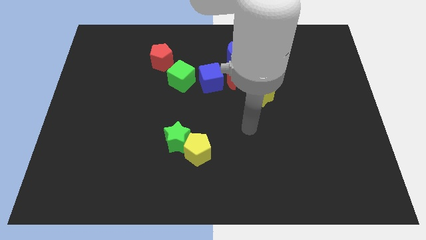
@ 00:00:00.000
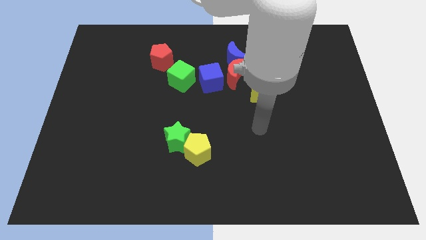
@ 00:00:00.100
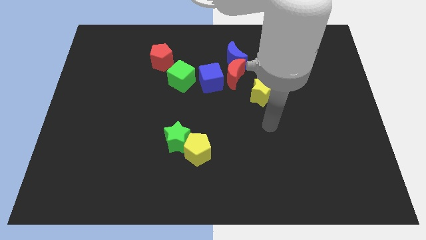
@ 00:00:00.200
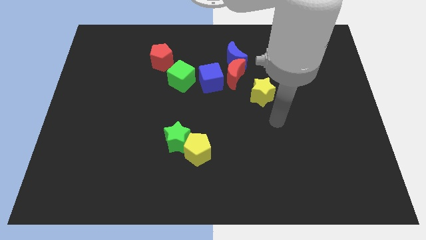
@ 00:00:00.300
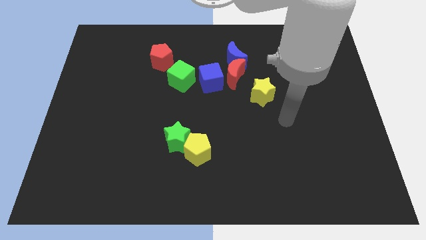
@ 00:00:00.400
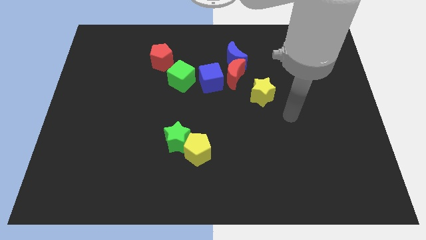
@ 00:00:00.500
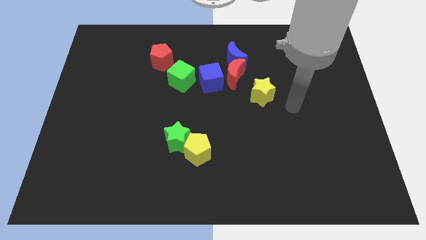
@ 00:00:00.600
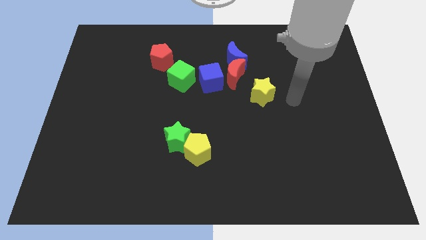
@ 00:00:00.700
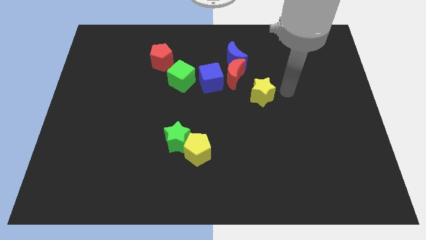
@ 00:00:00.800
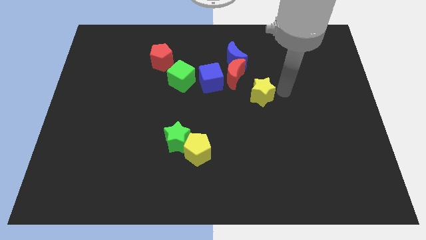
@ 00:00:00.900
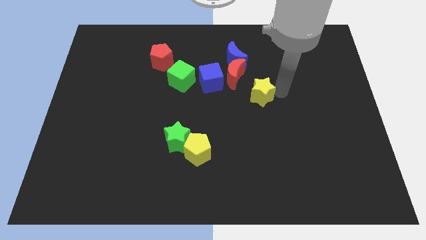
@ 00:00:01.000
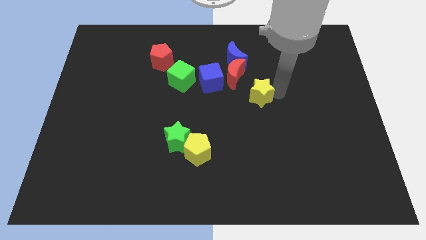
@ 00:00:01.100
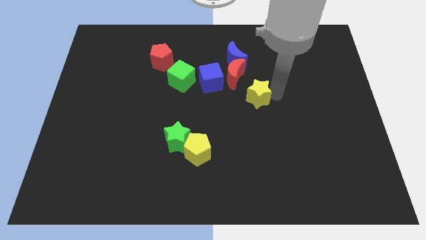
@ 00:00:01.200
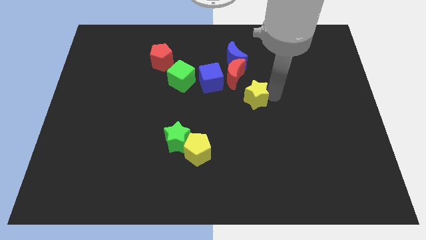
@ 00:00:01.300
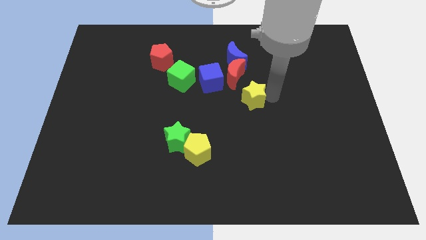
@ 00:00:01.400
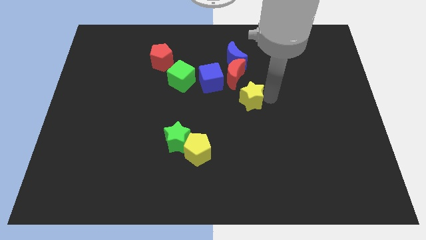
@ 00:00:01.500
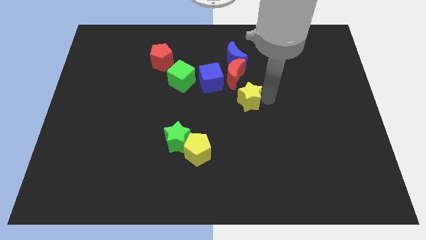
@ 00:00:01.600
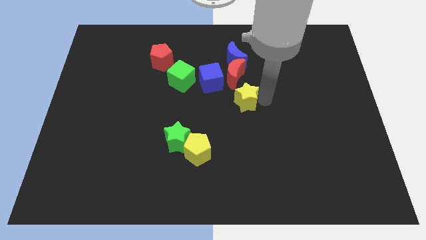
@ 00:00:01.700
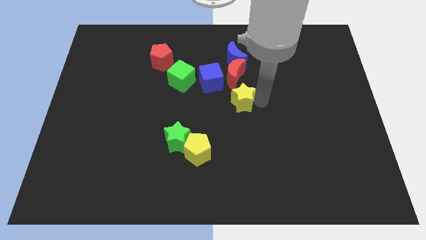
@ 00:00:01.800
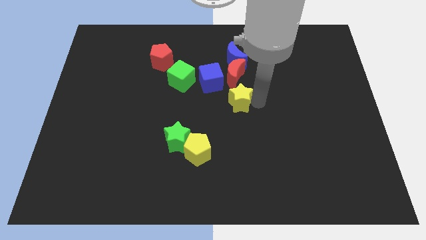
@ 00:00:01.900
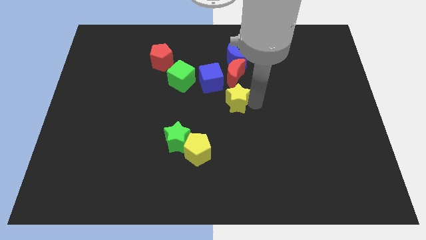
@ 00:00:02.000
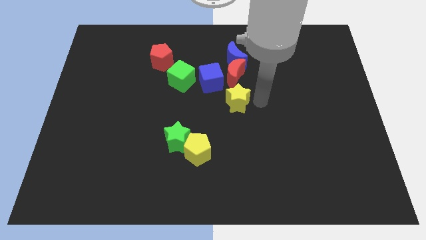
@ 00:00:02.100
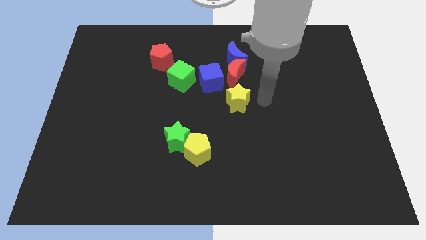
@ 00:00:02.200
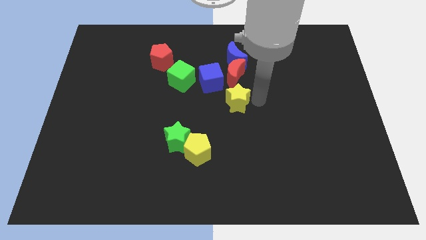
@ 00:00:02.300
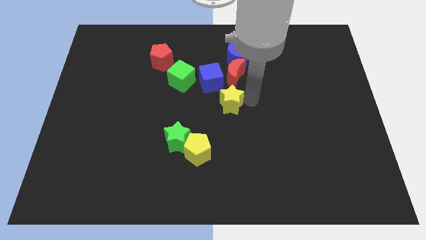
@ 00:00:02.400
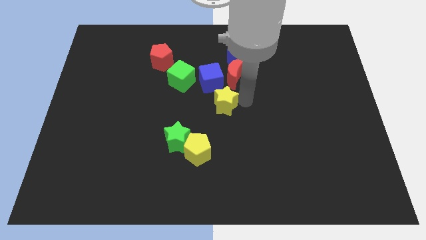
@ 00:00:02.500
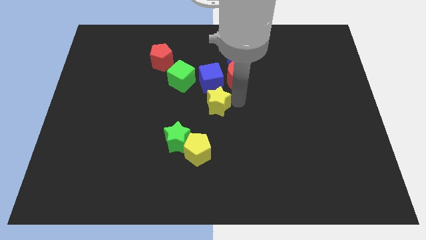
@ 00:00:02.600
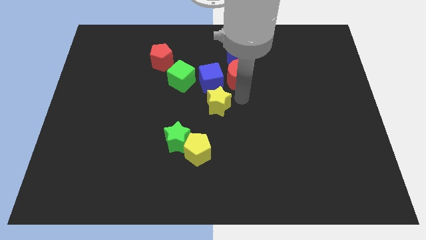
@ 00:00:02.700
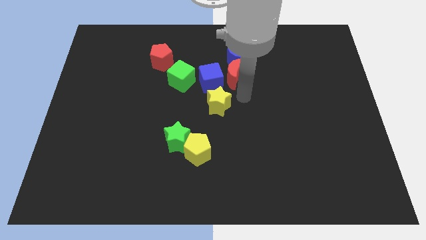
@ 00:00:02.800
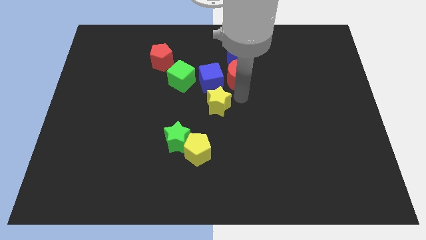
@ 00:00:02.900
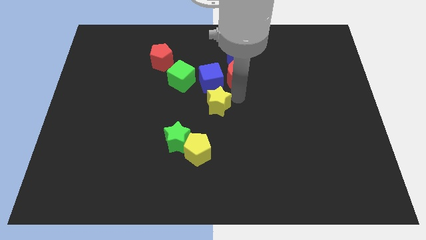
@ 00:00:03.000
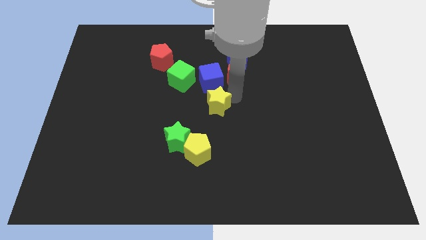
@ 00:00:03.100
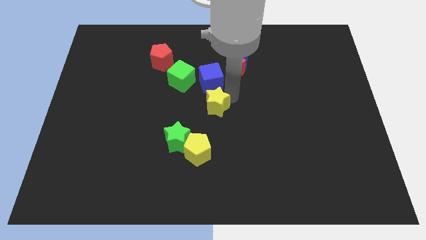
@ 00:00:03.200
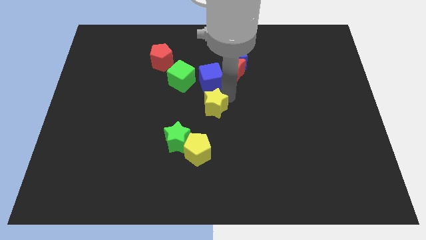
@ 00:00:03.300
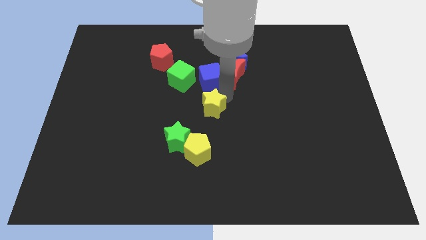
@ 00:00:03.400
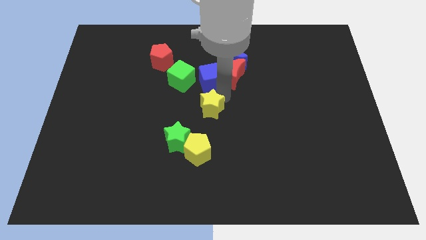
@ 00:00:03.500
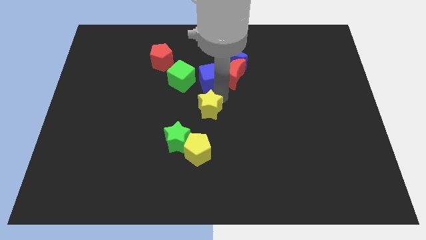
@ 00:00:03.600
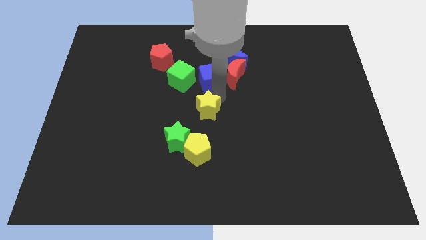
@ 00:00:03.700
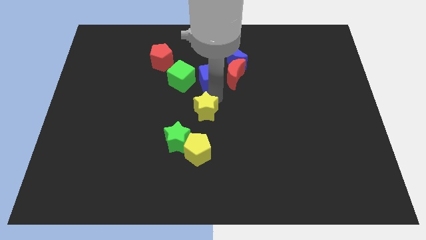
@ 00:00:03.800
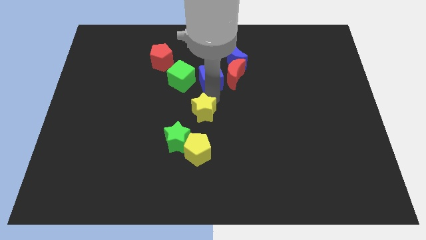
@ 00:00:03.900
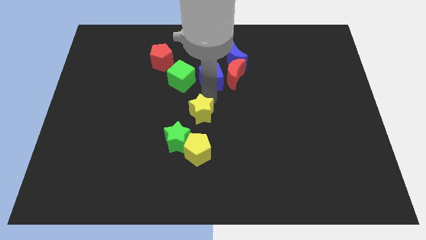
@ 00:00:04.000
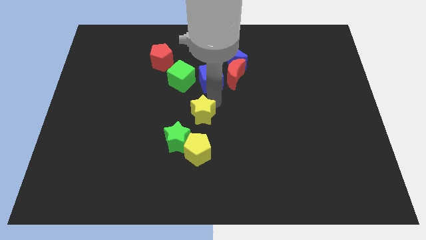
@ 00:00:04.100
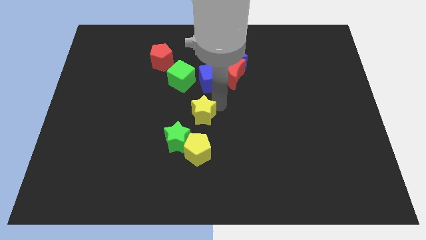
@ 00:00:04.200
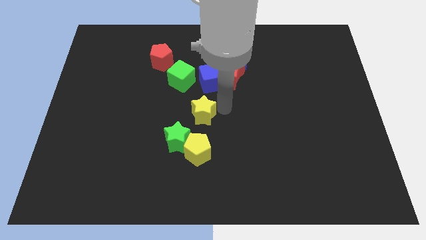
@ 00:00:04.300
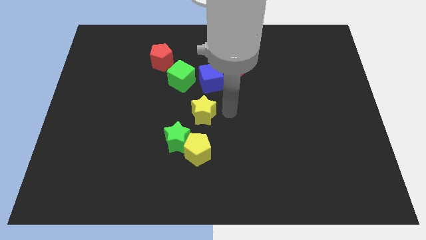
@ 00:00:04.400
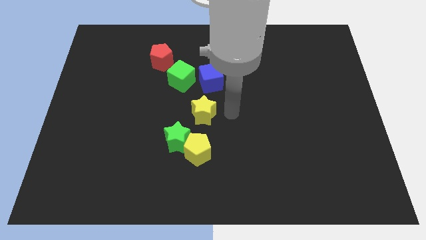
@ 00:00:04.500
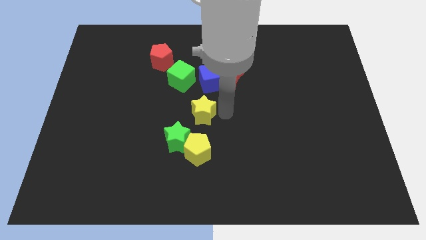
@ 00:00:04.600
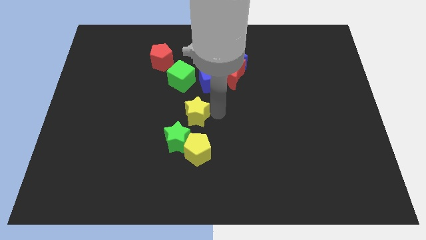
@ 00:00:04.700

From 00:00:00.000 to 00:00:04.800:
move the yellow star below the green cube

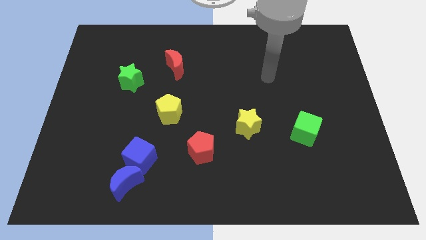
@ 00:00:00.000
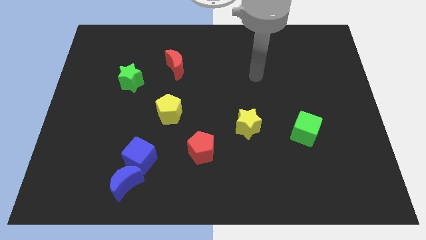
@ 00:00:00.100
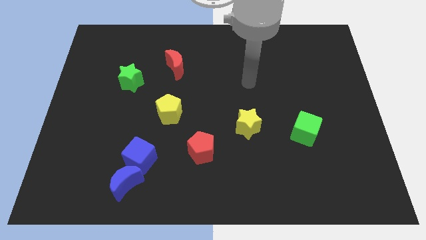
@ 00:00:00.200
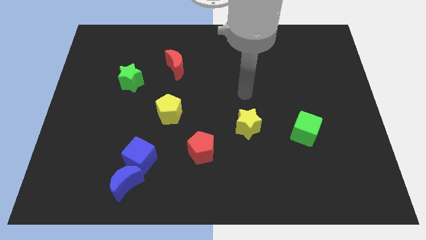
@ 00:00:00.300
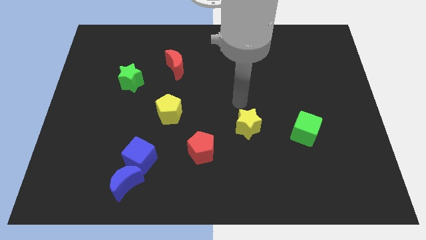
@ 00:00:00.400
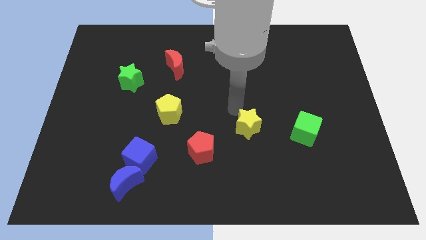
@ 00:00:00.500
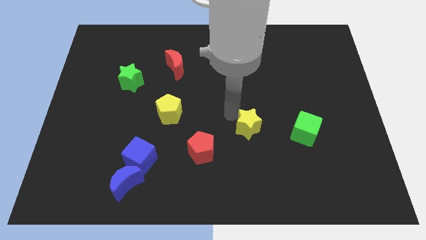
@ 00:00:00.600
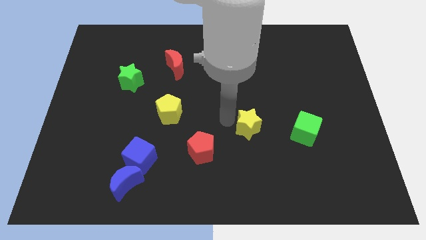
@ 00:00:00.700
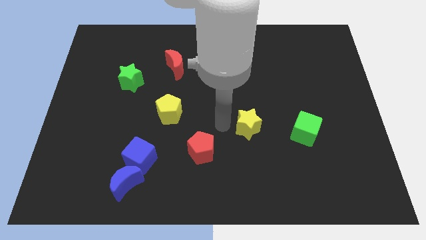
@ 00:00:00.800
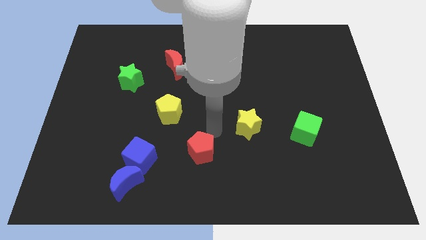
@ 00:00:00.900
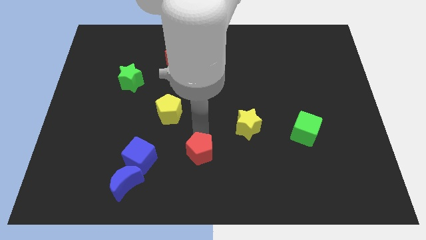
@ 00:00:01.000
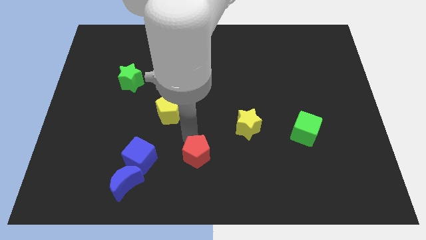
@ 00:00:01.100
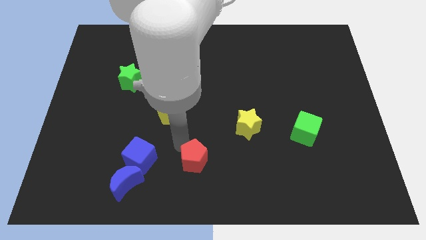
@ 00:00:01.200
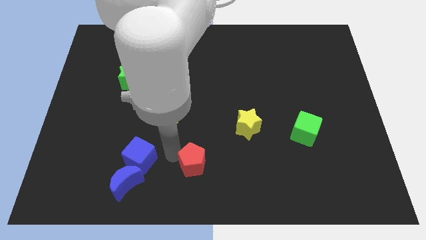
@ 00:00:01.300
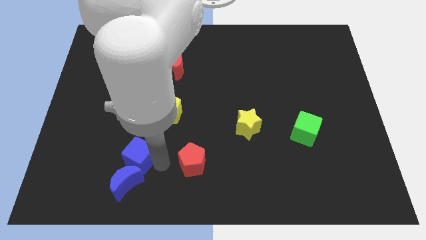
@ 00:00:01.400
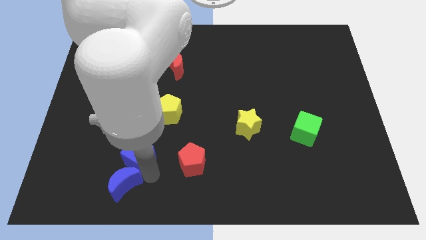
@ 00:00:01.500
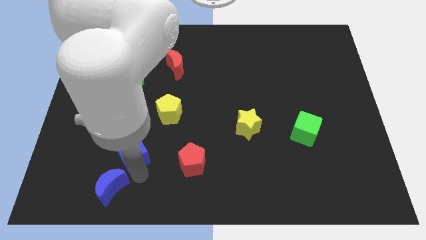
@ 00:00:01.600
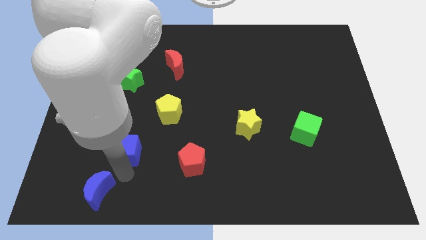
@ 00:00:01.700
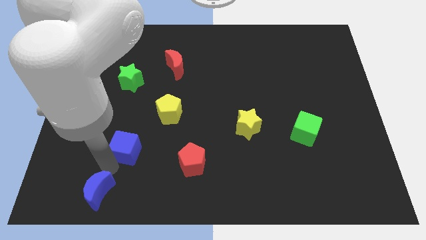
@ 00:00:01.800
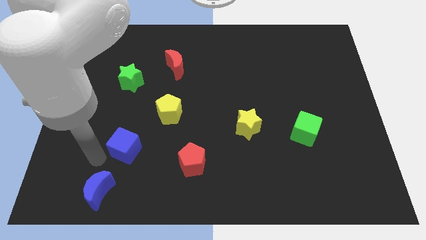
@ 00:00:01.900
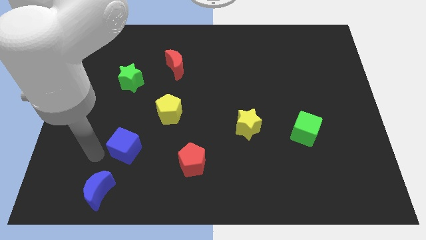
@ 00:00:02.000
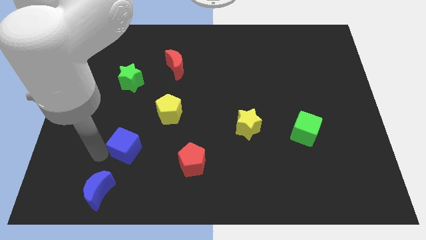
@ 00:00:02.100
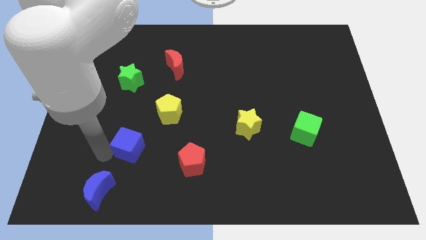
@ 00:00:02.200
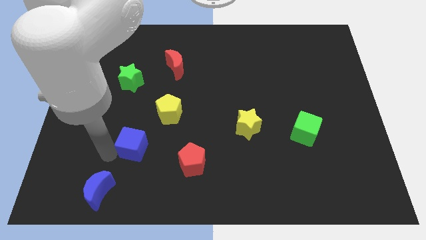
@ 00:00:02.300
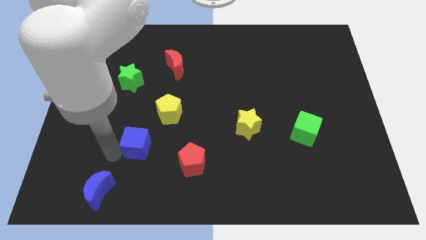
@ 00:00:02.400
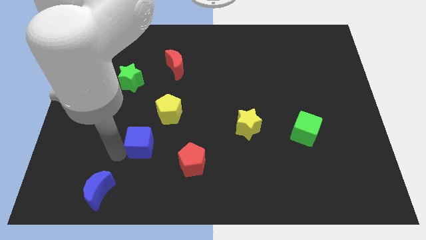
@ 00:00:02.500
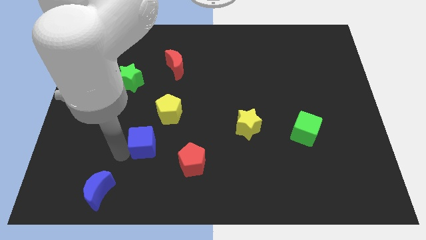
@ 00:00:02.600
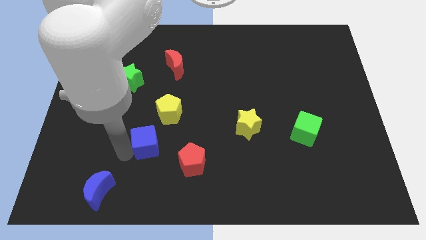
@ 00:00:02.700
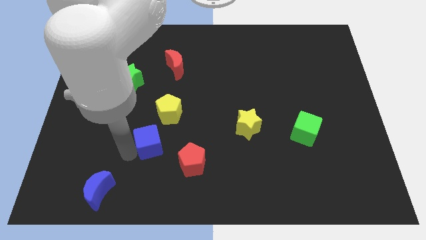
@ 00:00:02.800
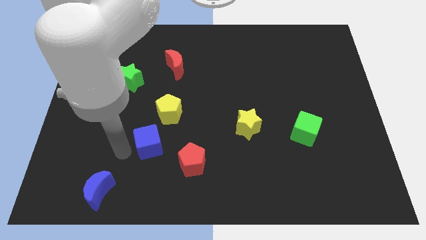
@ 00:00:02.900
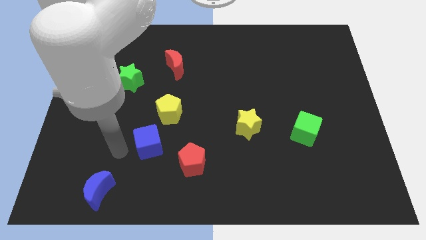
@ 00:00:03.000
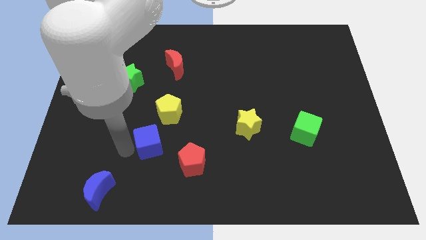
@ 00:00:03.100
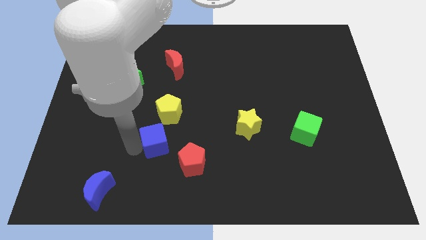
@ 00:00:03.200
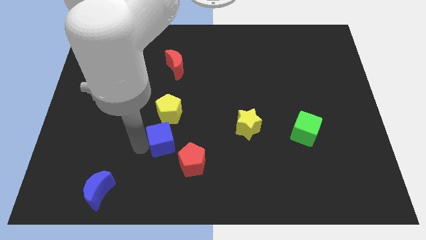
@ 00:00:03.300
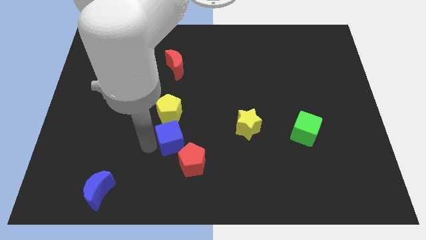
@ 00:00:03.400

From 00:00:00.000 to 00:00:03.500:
put the blue cube diagonally down and to the right of the yellow pentagon
